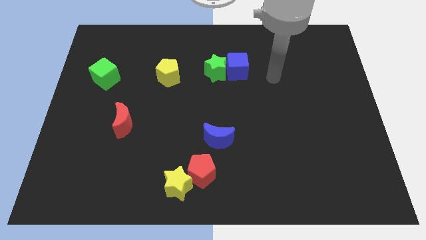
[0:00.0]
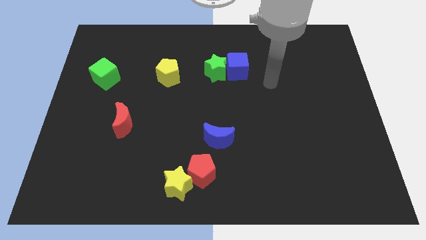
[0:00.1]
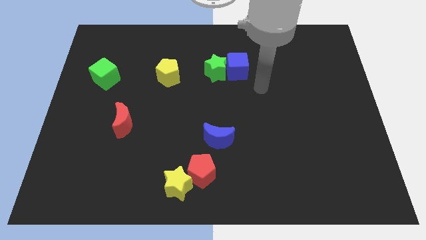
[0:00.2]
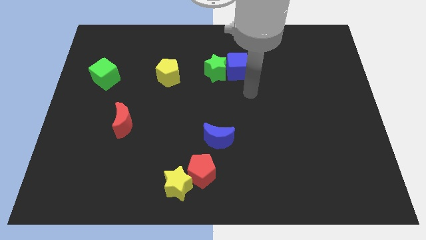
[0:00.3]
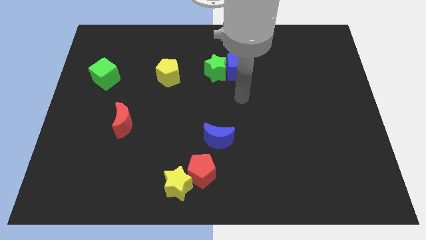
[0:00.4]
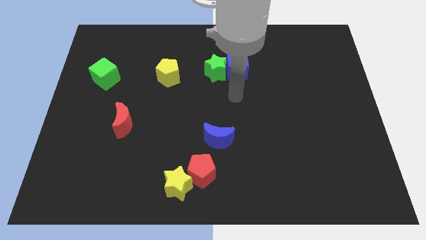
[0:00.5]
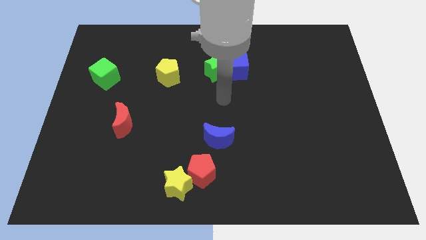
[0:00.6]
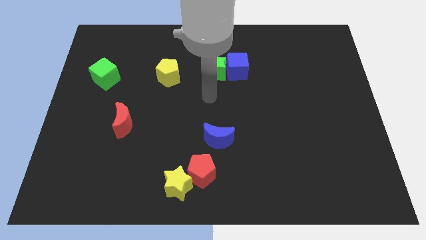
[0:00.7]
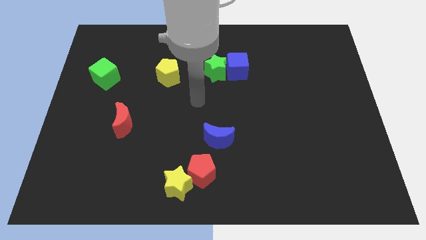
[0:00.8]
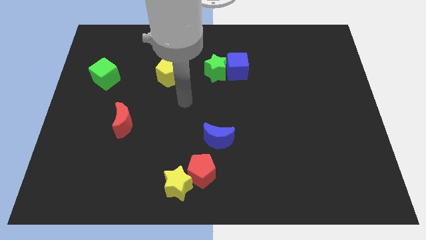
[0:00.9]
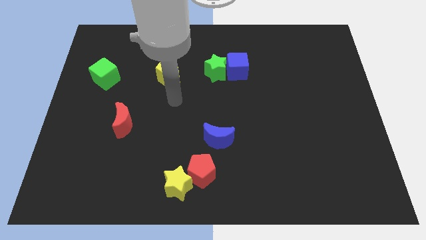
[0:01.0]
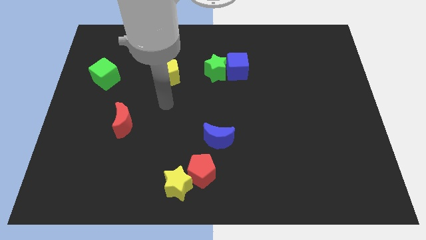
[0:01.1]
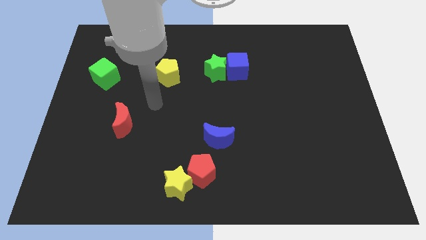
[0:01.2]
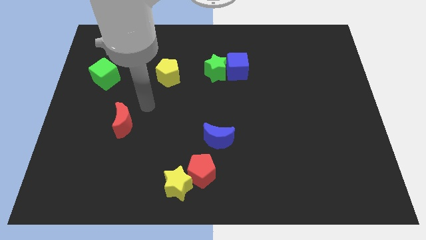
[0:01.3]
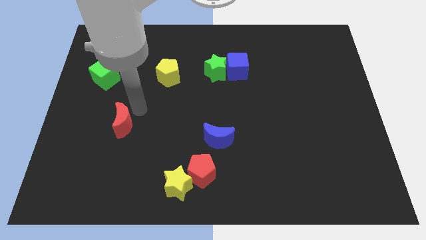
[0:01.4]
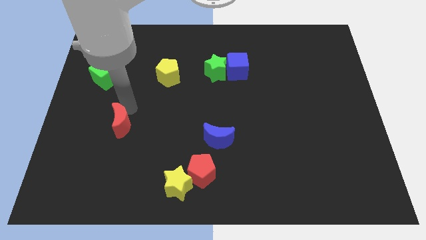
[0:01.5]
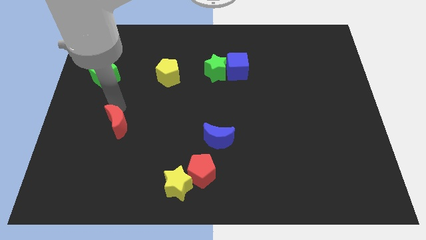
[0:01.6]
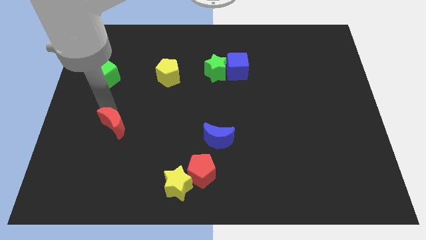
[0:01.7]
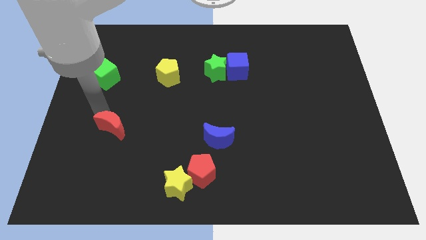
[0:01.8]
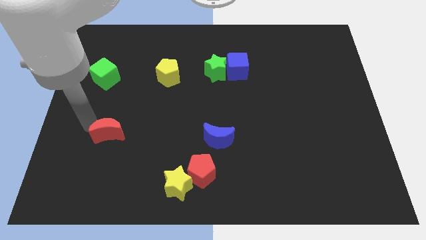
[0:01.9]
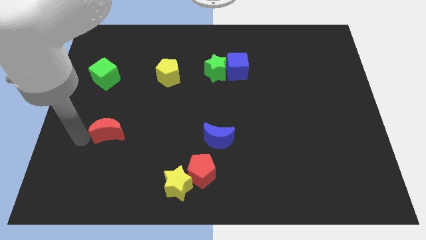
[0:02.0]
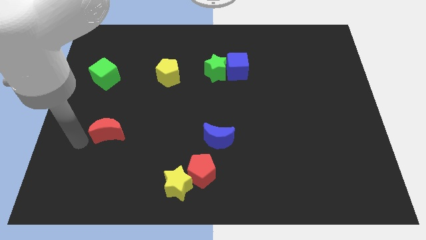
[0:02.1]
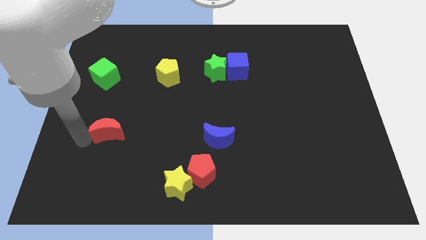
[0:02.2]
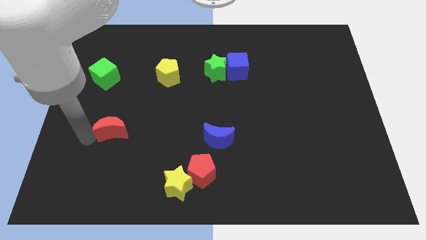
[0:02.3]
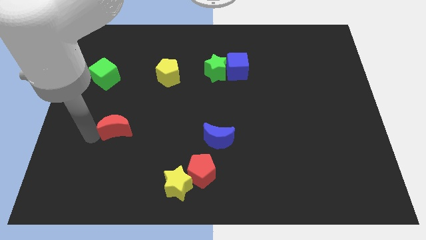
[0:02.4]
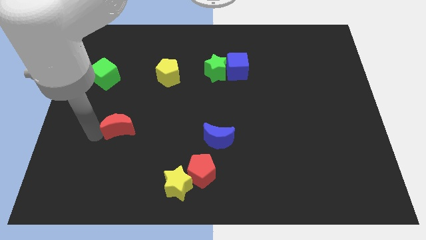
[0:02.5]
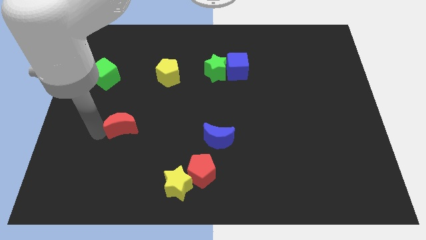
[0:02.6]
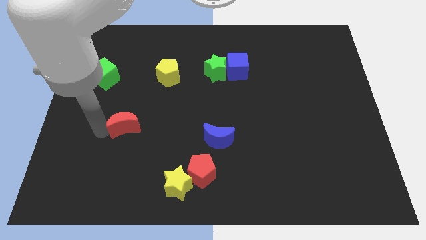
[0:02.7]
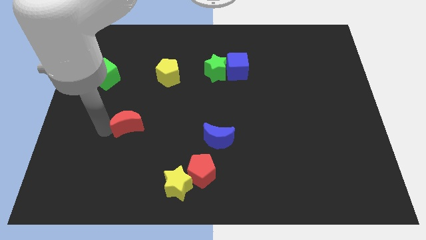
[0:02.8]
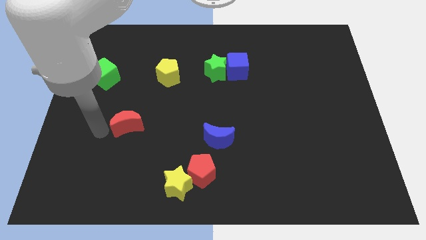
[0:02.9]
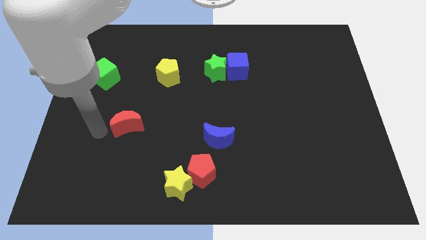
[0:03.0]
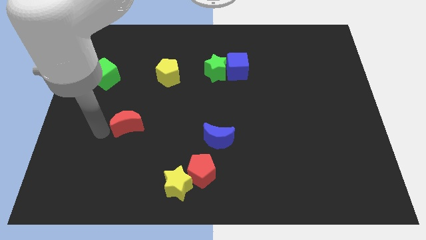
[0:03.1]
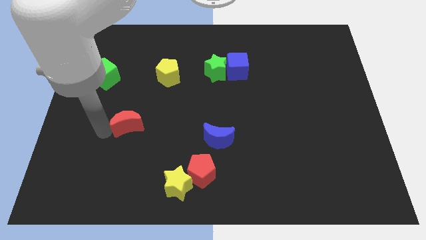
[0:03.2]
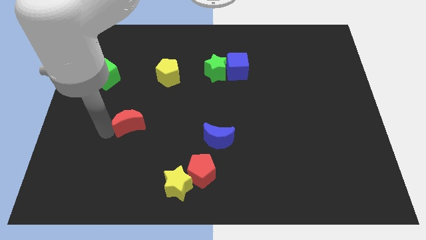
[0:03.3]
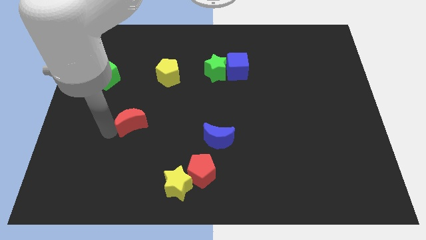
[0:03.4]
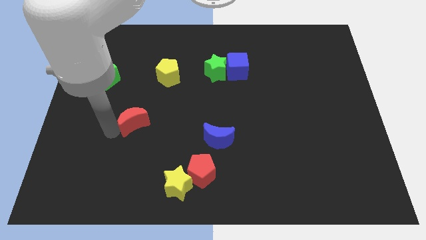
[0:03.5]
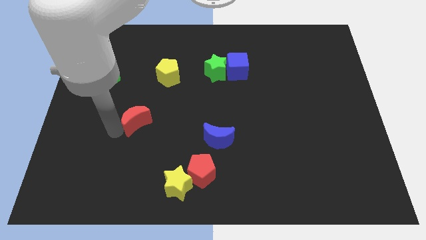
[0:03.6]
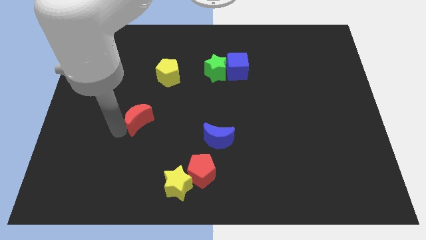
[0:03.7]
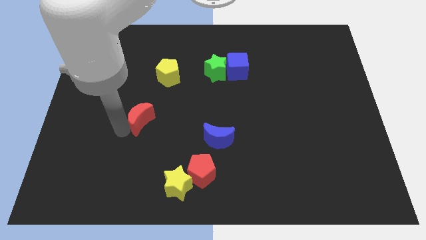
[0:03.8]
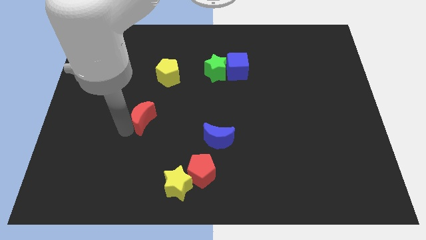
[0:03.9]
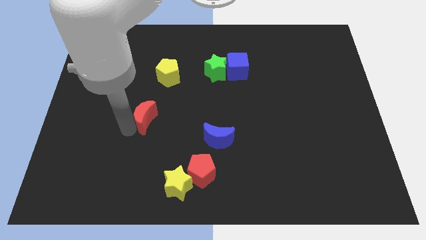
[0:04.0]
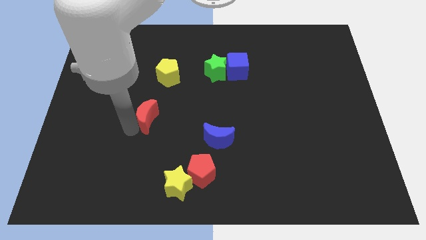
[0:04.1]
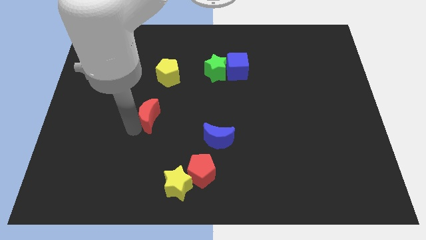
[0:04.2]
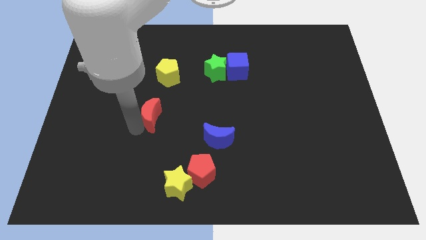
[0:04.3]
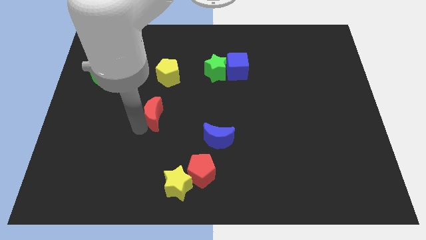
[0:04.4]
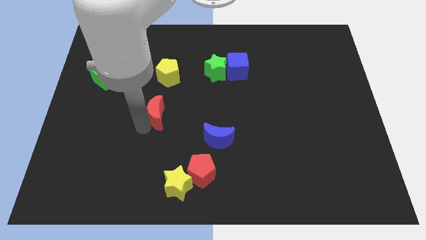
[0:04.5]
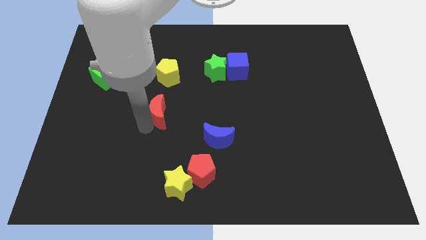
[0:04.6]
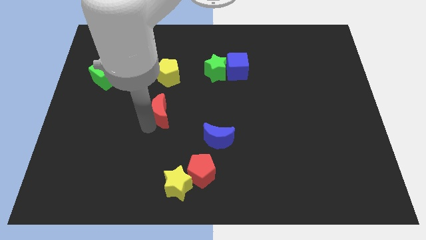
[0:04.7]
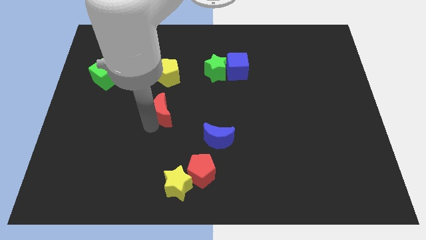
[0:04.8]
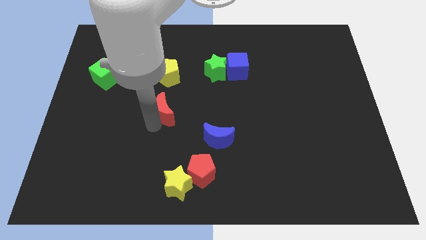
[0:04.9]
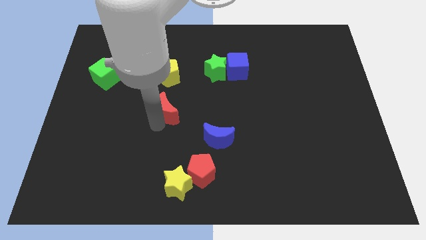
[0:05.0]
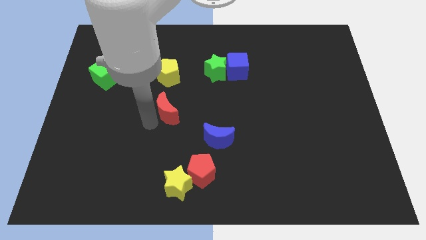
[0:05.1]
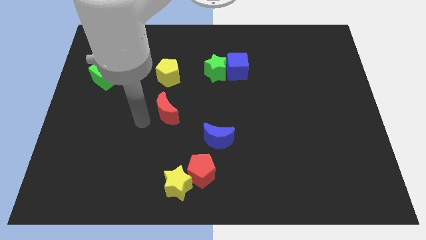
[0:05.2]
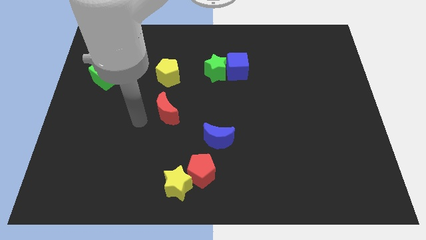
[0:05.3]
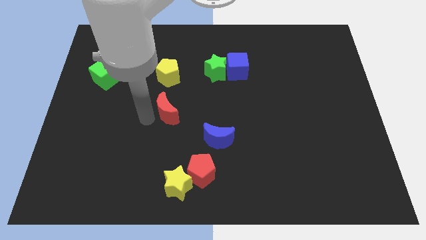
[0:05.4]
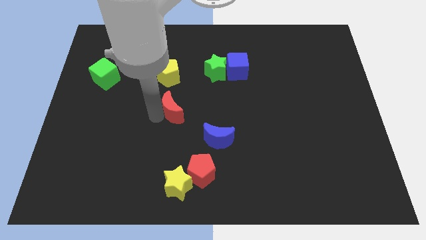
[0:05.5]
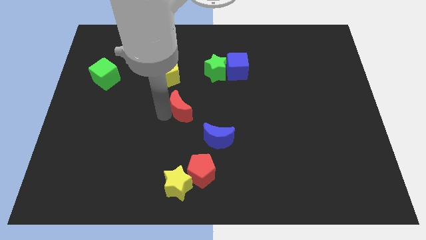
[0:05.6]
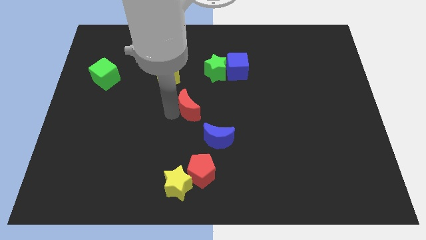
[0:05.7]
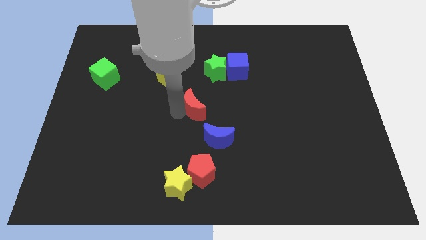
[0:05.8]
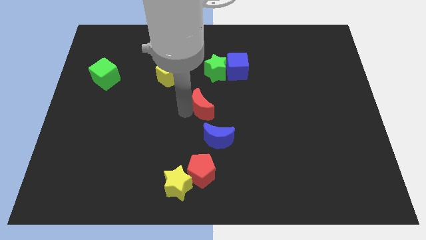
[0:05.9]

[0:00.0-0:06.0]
push the red moon to the bottom side of the green star
